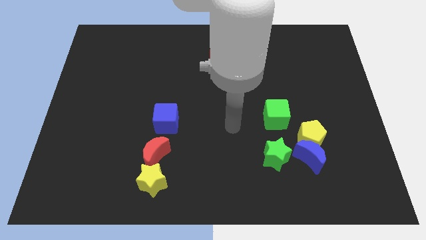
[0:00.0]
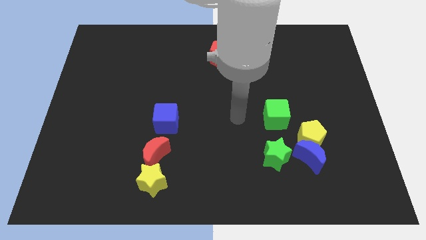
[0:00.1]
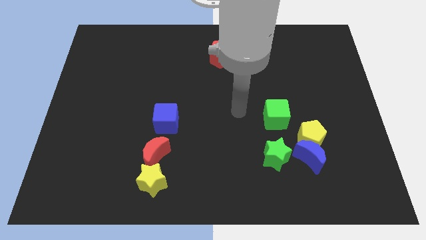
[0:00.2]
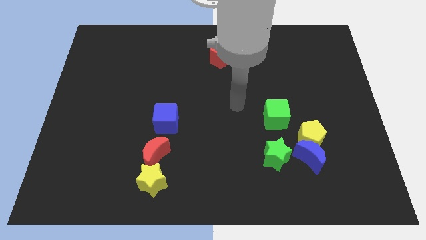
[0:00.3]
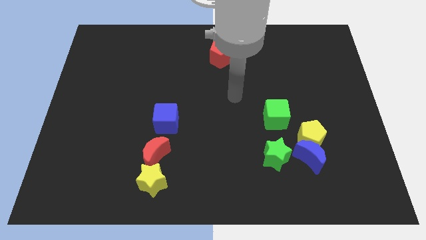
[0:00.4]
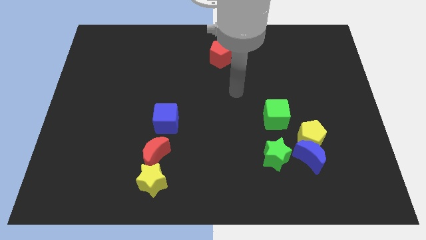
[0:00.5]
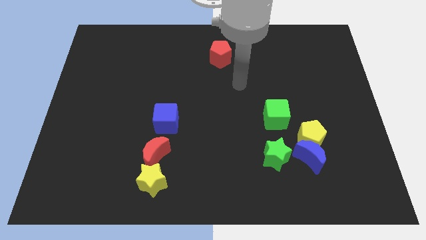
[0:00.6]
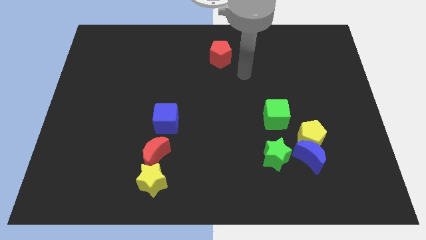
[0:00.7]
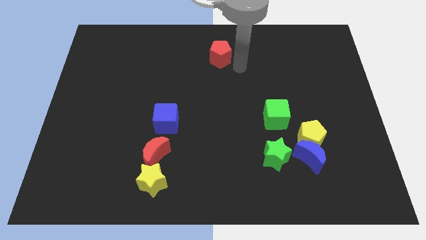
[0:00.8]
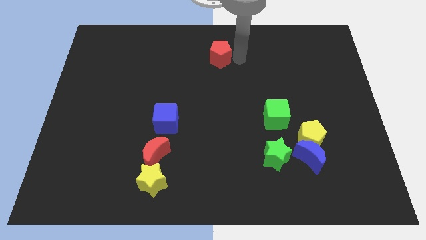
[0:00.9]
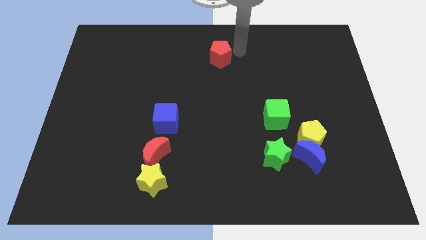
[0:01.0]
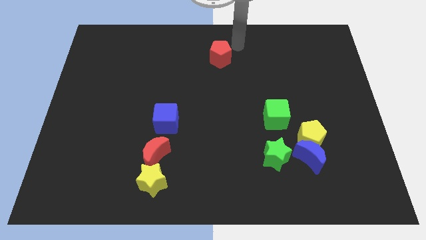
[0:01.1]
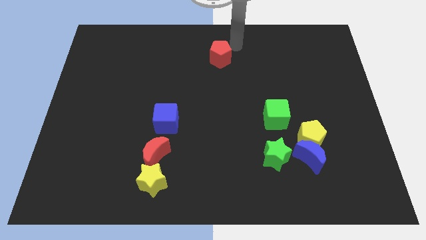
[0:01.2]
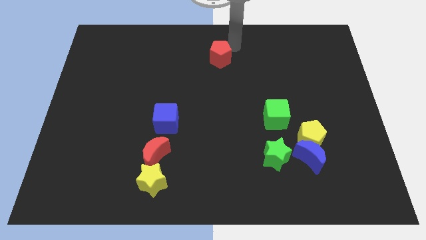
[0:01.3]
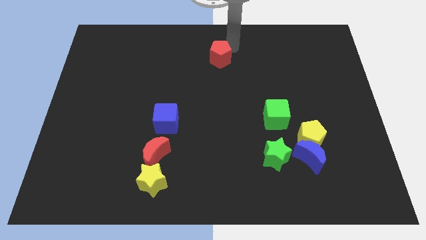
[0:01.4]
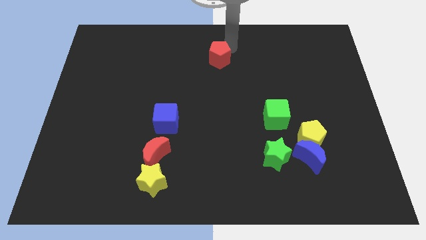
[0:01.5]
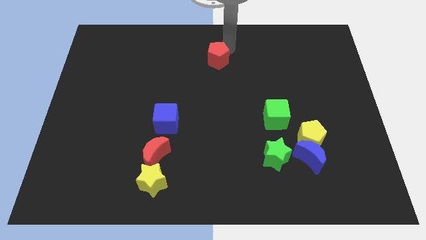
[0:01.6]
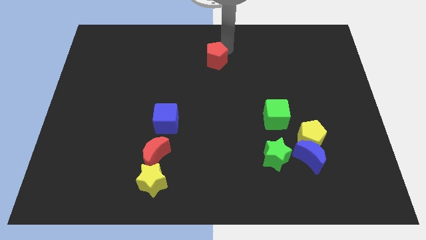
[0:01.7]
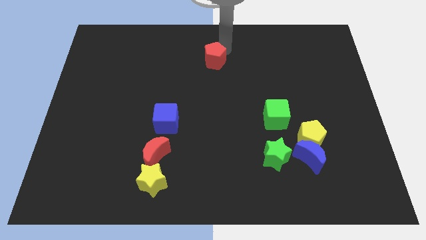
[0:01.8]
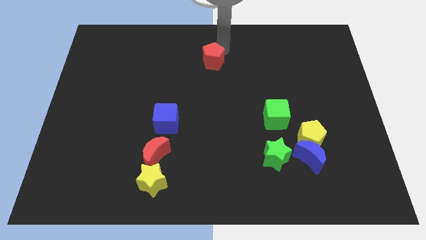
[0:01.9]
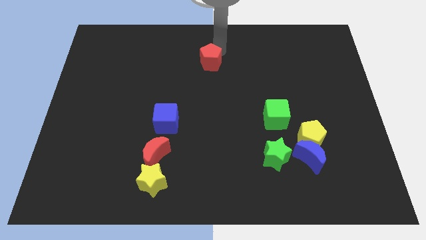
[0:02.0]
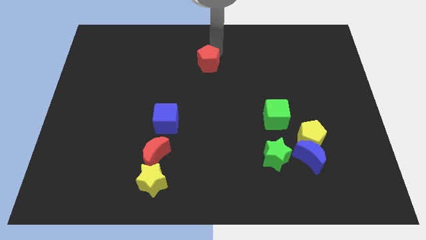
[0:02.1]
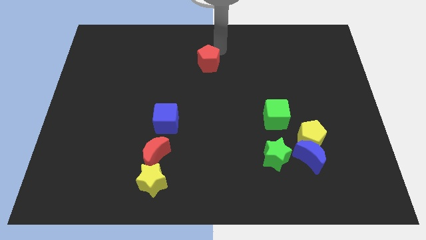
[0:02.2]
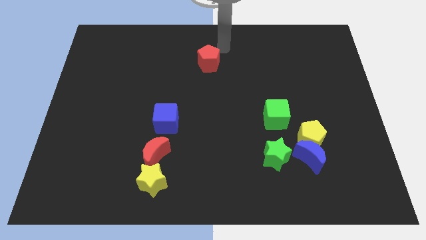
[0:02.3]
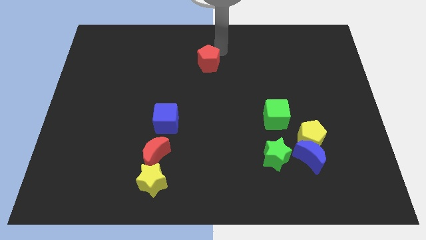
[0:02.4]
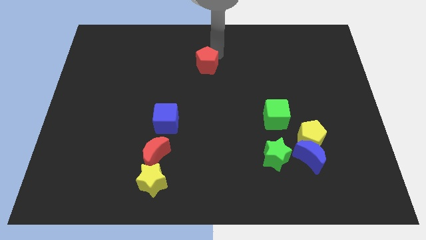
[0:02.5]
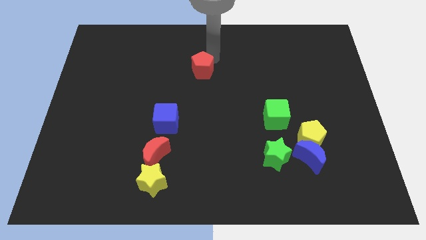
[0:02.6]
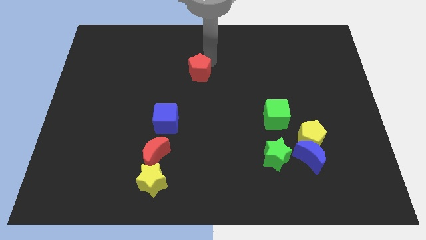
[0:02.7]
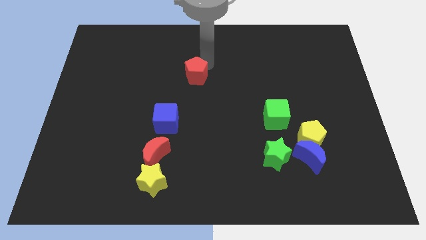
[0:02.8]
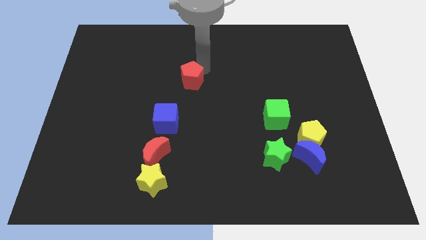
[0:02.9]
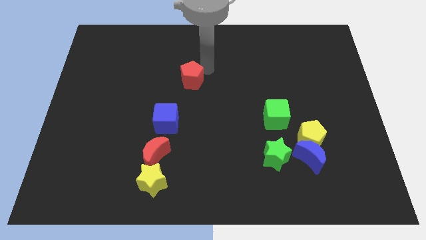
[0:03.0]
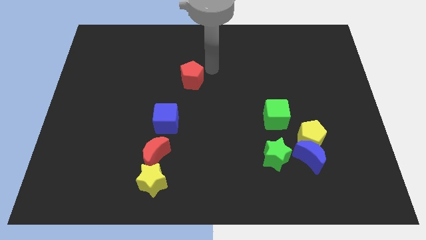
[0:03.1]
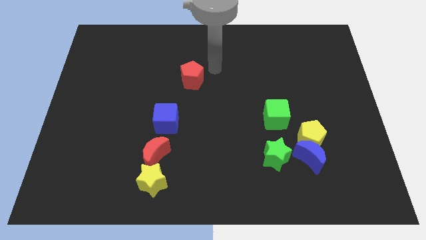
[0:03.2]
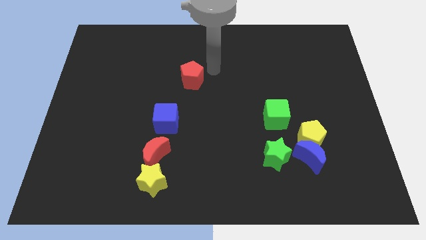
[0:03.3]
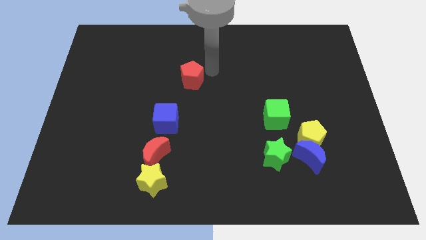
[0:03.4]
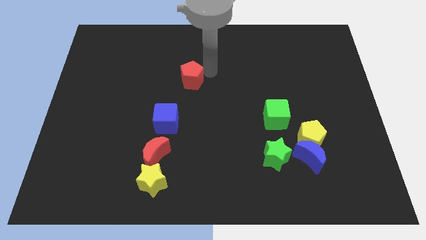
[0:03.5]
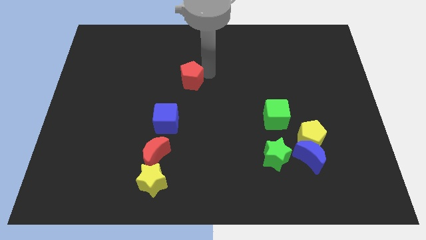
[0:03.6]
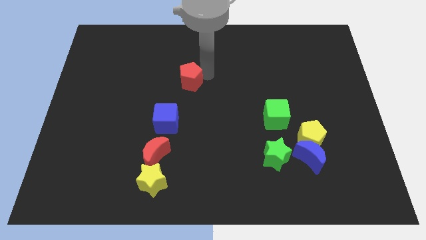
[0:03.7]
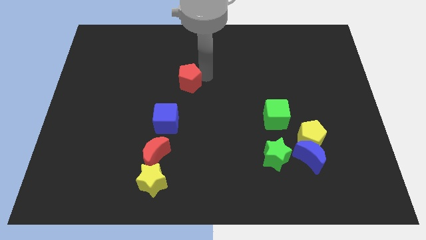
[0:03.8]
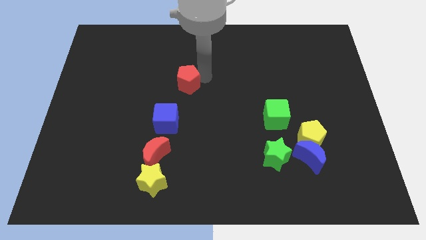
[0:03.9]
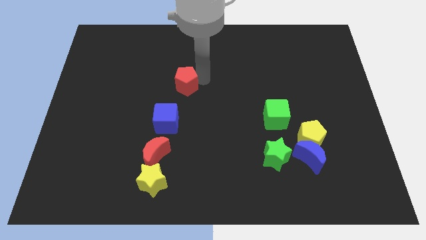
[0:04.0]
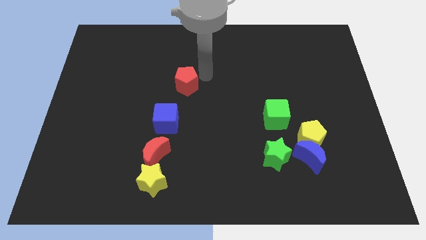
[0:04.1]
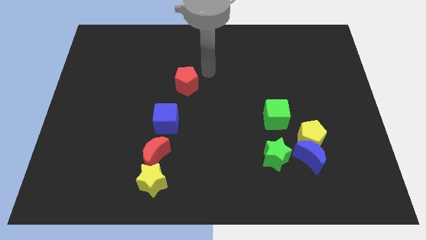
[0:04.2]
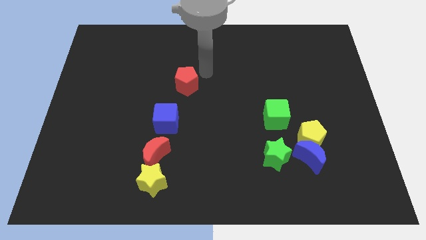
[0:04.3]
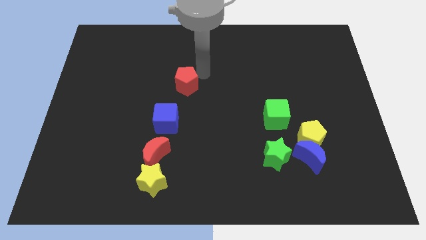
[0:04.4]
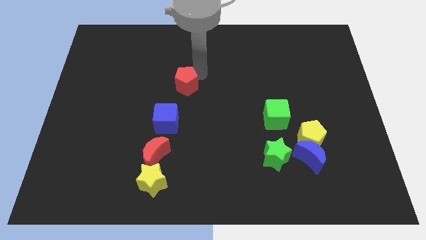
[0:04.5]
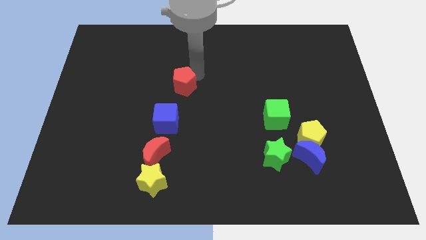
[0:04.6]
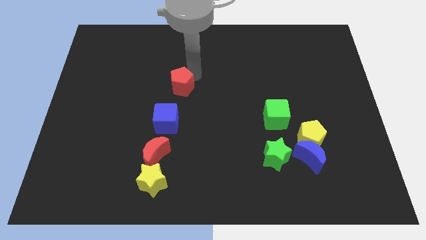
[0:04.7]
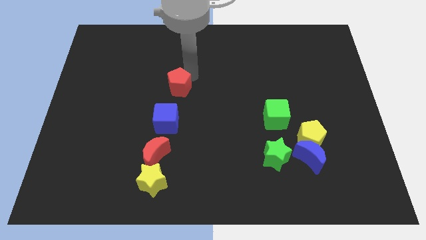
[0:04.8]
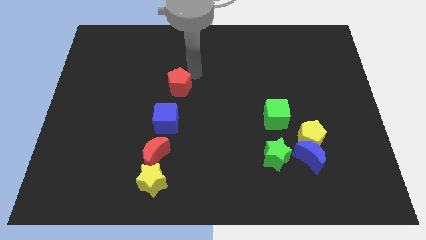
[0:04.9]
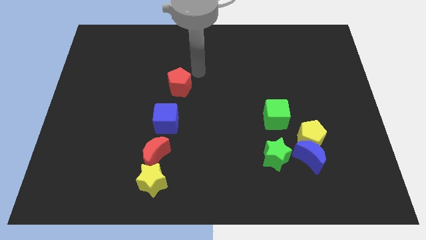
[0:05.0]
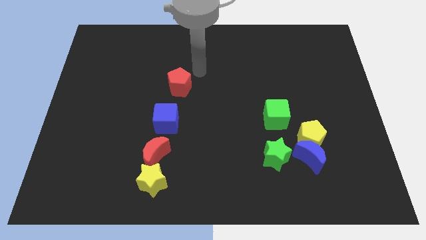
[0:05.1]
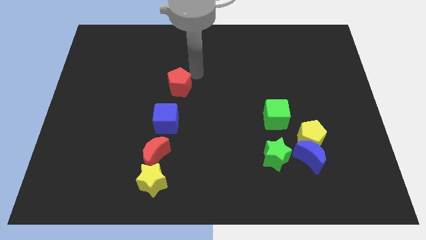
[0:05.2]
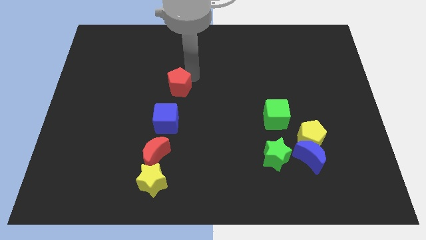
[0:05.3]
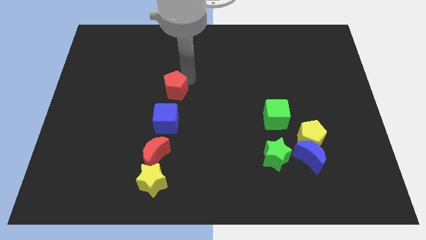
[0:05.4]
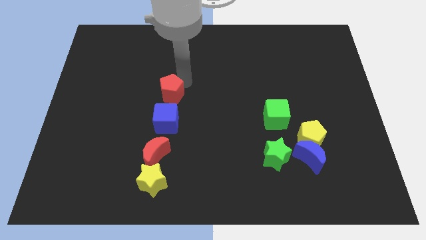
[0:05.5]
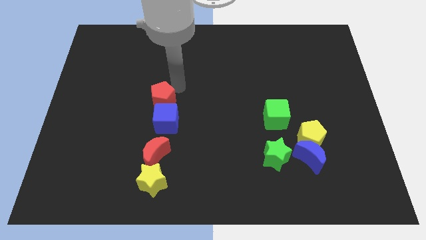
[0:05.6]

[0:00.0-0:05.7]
move the red pentagon diagonally down and left

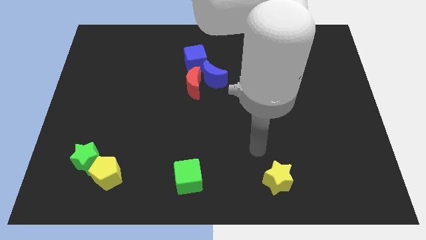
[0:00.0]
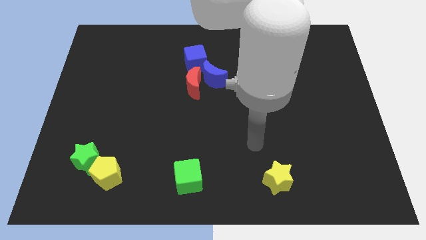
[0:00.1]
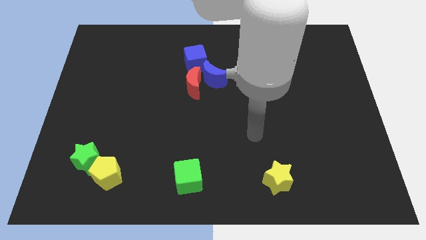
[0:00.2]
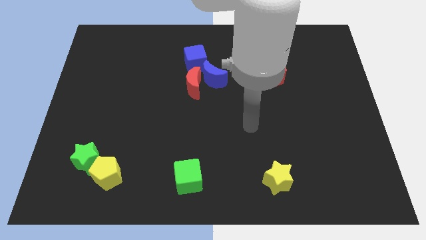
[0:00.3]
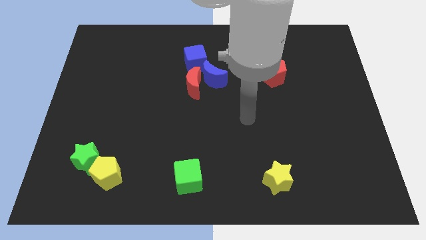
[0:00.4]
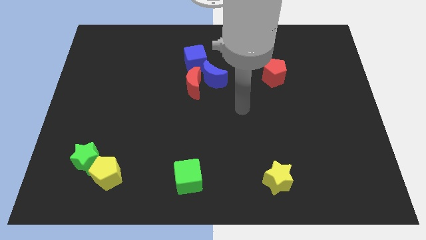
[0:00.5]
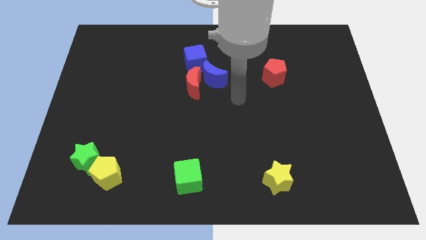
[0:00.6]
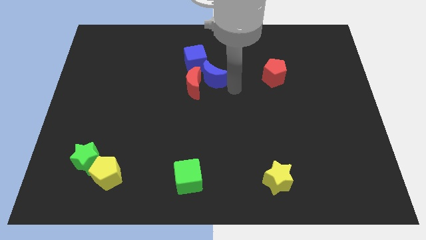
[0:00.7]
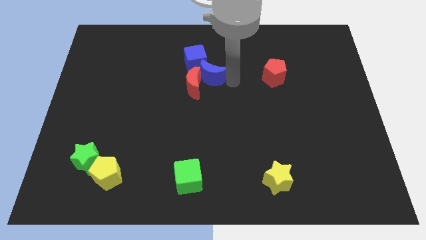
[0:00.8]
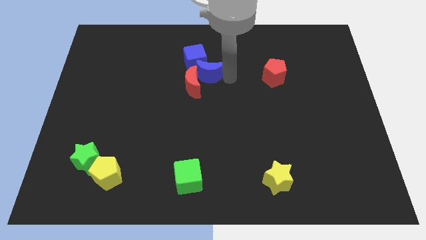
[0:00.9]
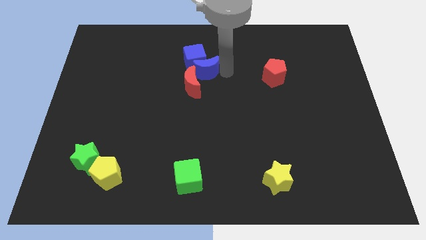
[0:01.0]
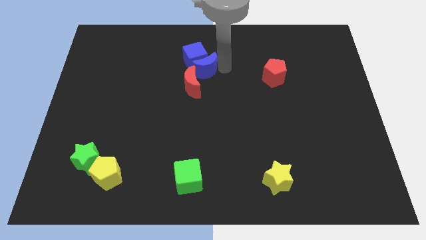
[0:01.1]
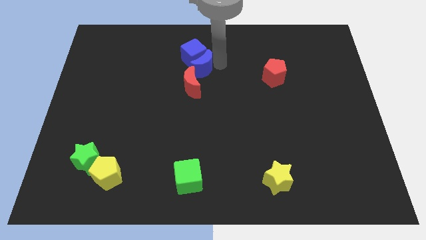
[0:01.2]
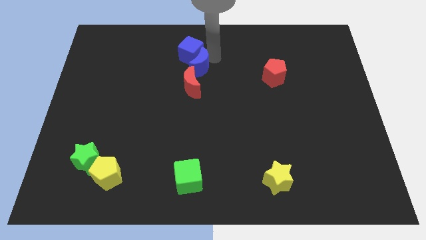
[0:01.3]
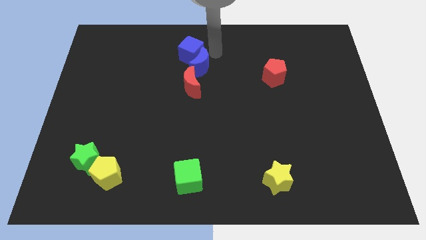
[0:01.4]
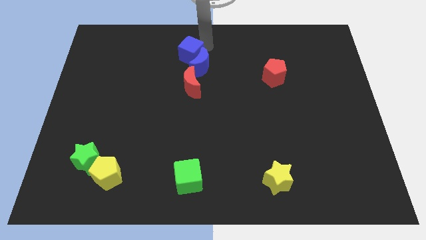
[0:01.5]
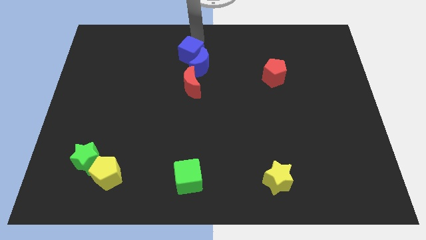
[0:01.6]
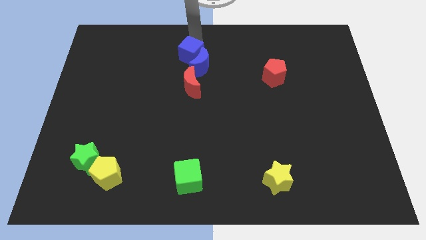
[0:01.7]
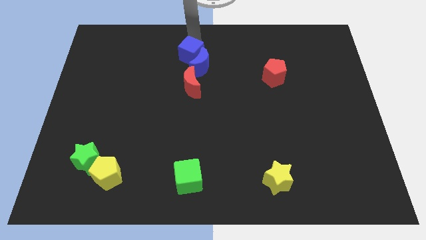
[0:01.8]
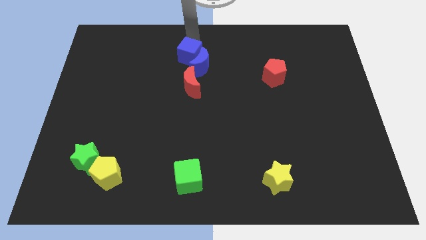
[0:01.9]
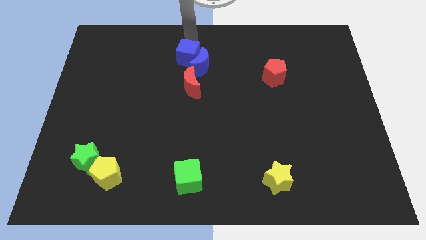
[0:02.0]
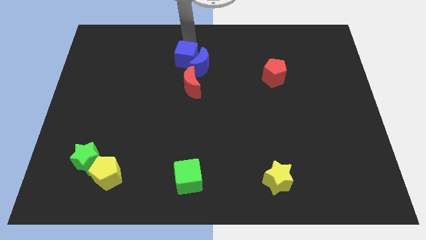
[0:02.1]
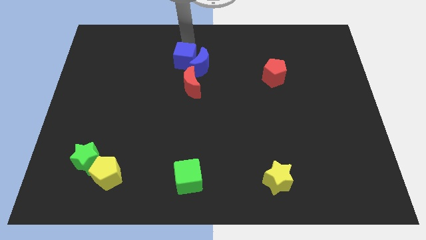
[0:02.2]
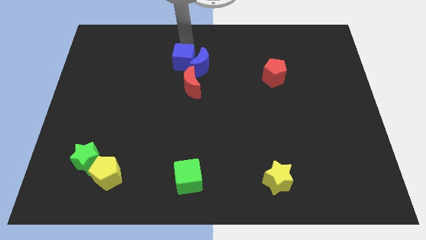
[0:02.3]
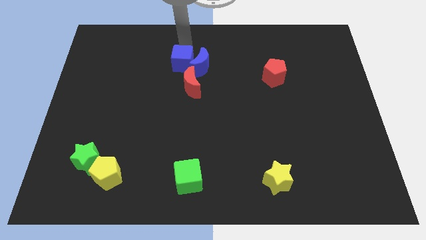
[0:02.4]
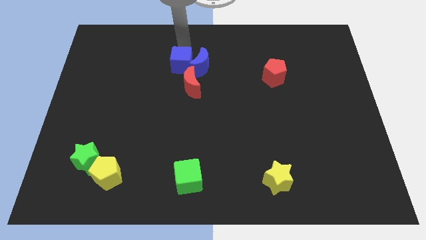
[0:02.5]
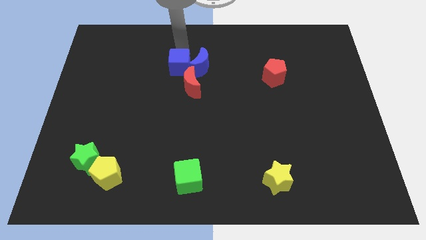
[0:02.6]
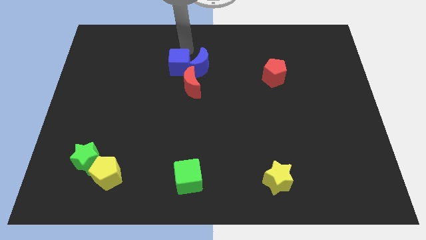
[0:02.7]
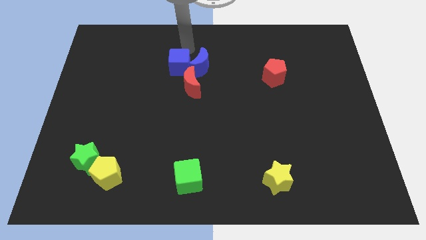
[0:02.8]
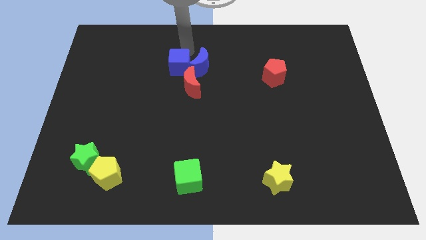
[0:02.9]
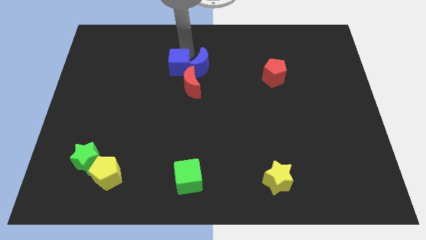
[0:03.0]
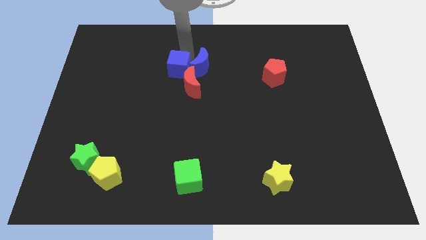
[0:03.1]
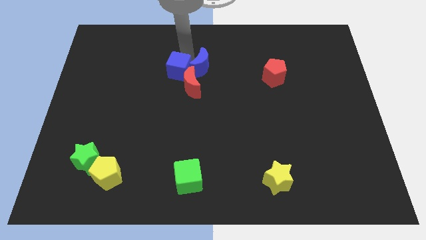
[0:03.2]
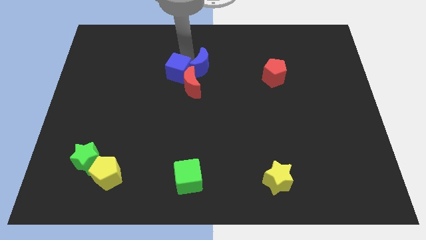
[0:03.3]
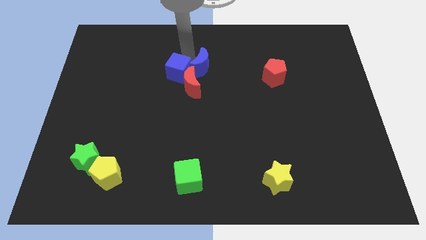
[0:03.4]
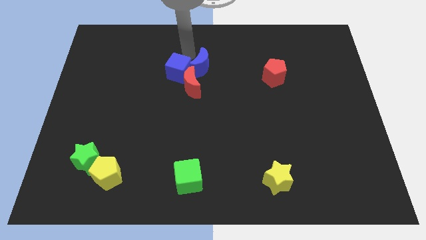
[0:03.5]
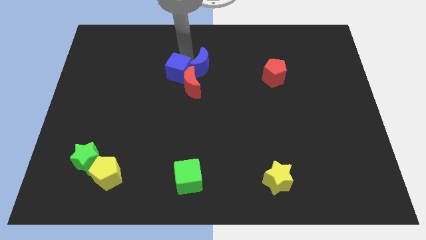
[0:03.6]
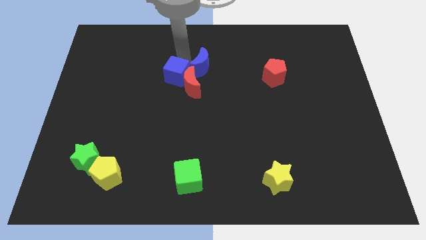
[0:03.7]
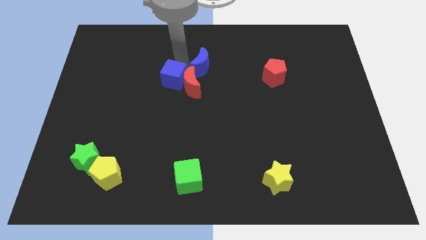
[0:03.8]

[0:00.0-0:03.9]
move the blue cube downwards and then to the left a bit
